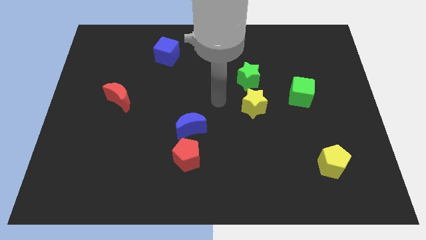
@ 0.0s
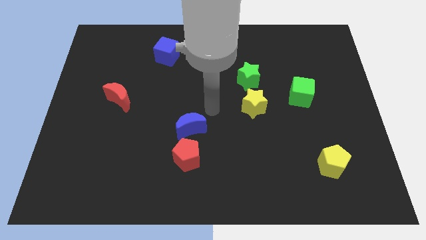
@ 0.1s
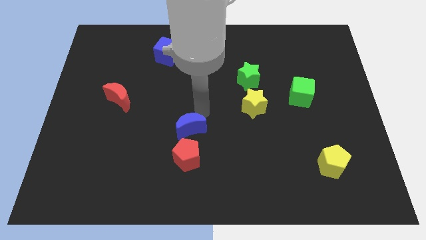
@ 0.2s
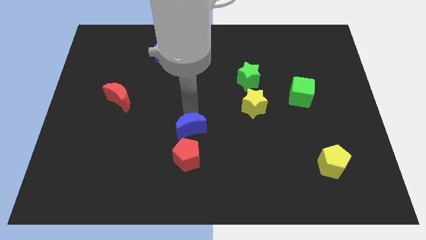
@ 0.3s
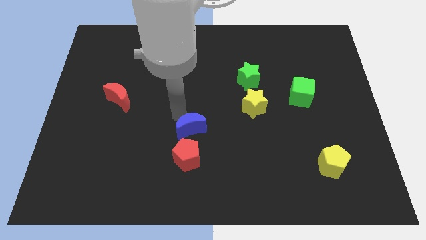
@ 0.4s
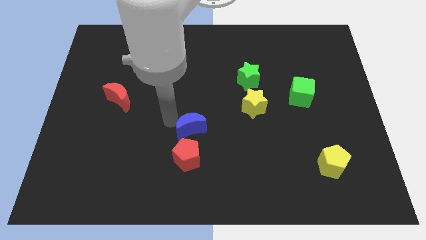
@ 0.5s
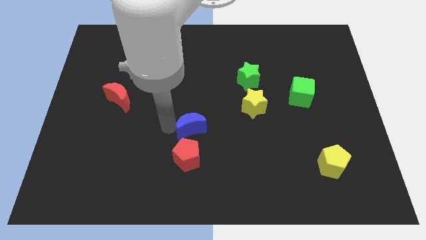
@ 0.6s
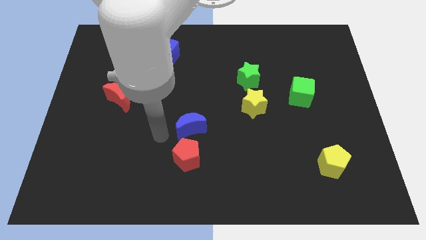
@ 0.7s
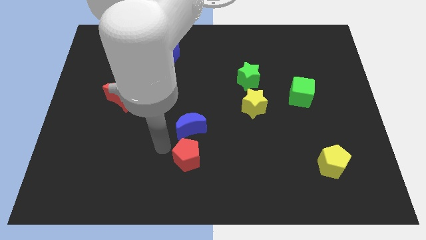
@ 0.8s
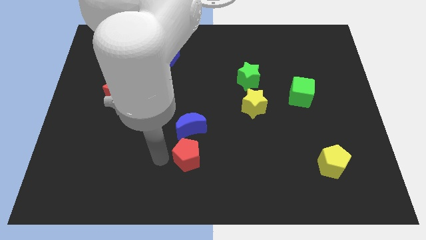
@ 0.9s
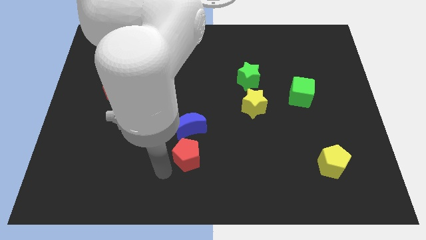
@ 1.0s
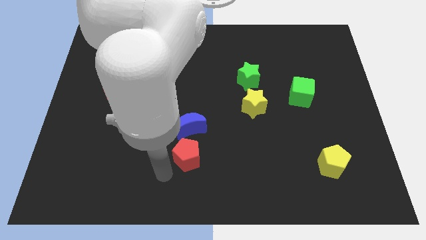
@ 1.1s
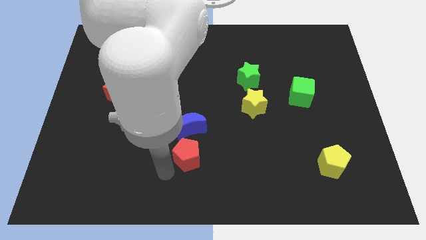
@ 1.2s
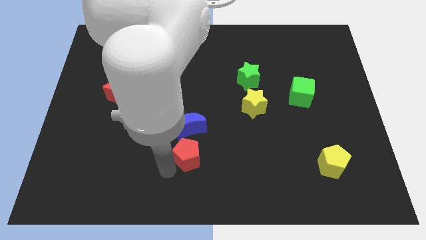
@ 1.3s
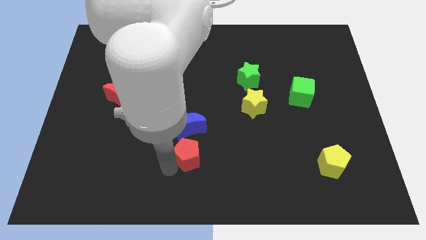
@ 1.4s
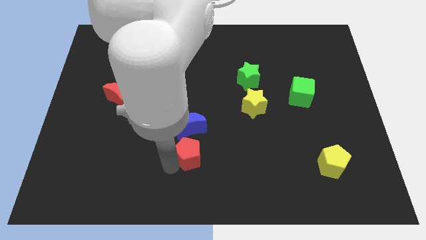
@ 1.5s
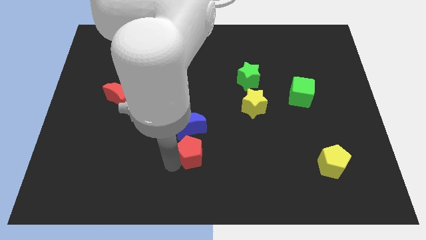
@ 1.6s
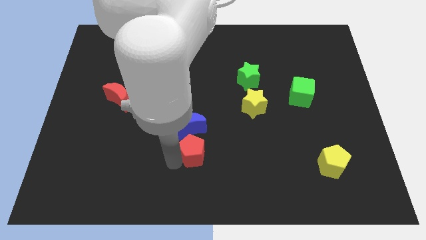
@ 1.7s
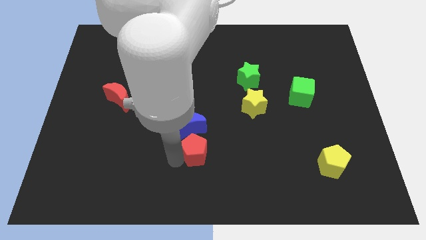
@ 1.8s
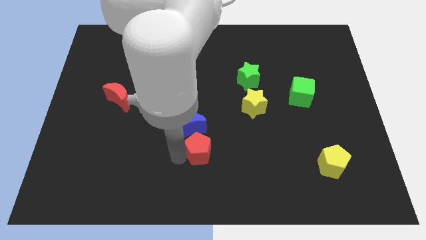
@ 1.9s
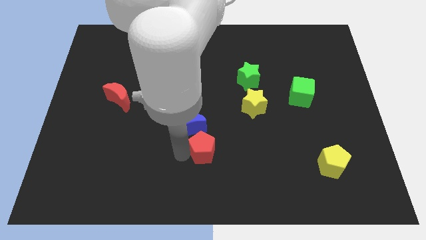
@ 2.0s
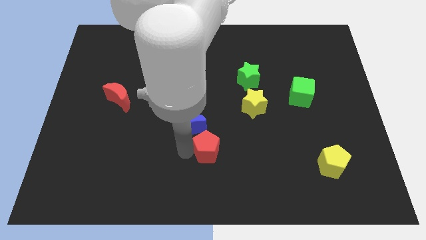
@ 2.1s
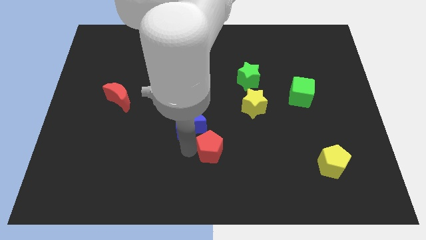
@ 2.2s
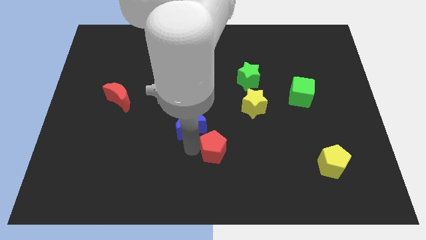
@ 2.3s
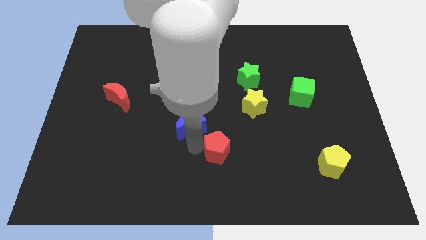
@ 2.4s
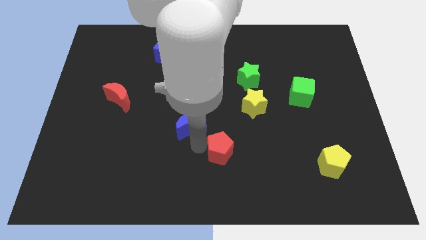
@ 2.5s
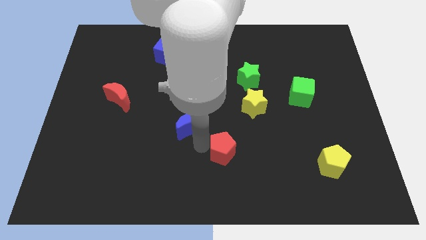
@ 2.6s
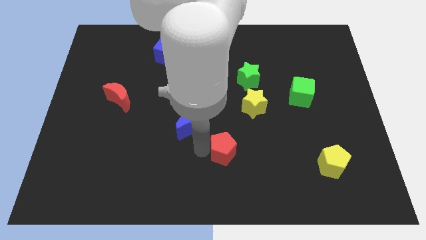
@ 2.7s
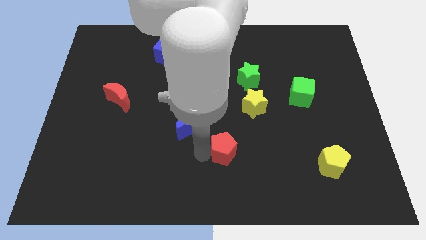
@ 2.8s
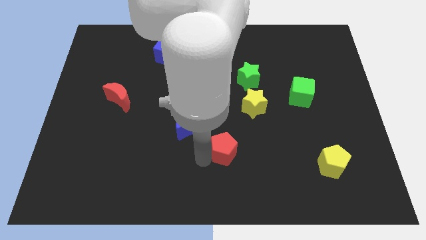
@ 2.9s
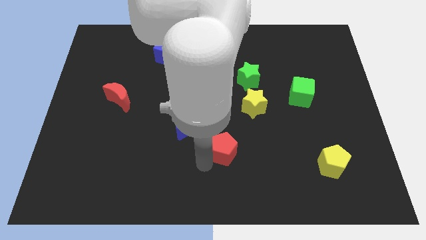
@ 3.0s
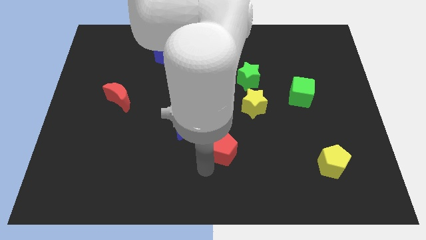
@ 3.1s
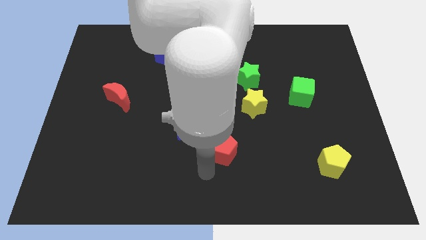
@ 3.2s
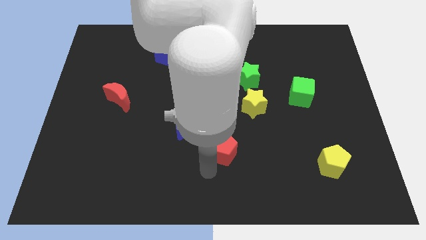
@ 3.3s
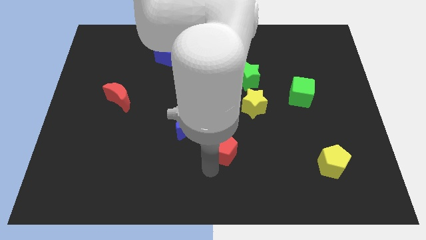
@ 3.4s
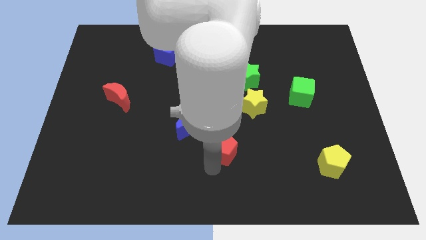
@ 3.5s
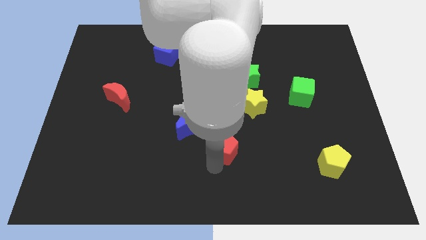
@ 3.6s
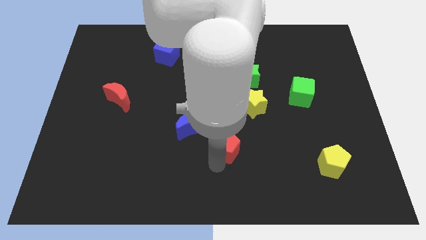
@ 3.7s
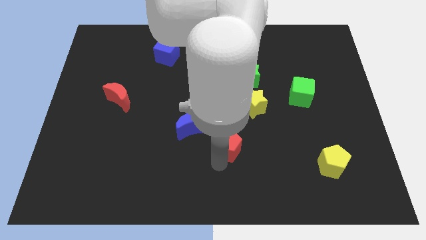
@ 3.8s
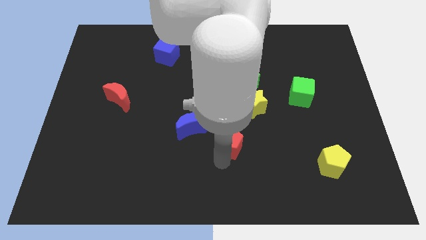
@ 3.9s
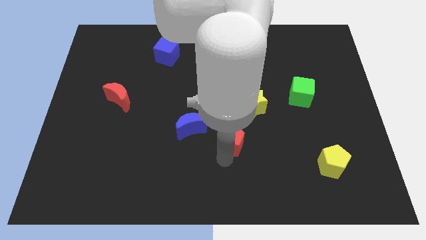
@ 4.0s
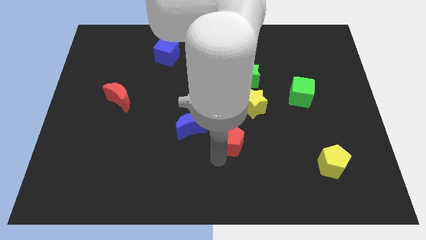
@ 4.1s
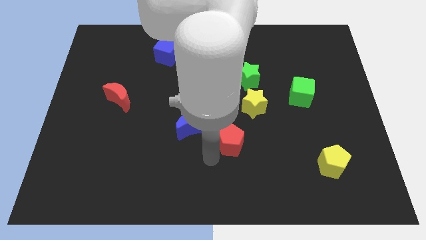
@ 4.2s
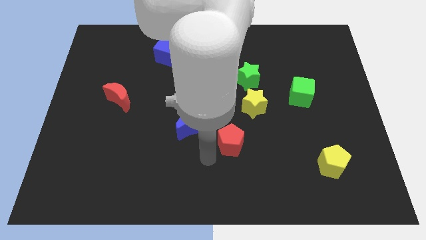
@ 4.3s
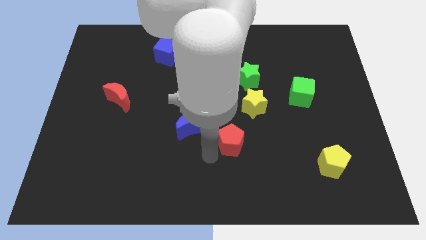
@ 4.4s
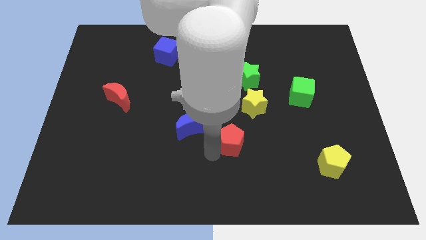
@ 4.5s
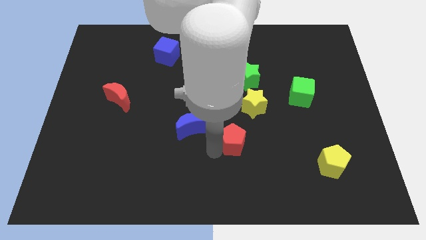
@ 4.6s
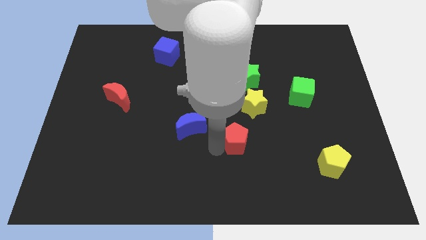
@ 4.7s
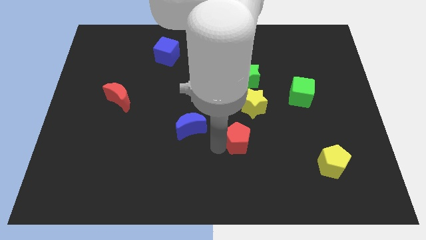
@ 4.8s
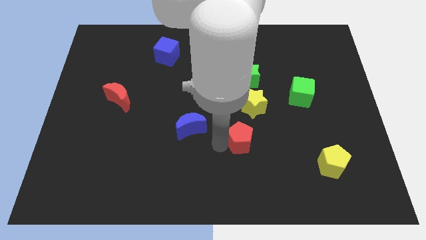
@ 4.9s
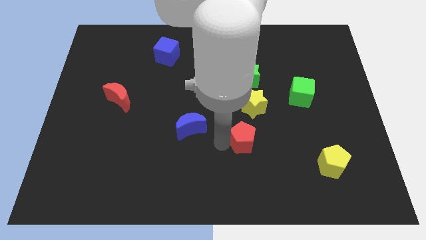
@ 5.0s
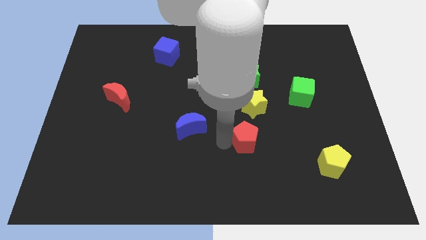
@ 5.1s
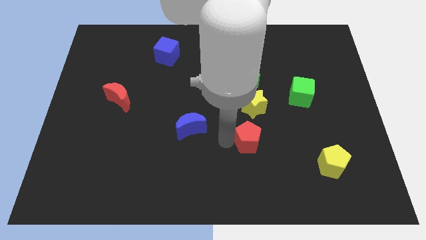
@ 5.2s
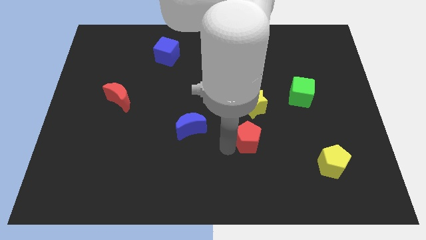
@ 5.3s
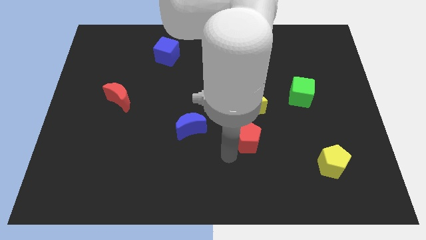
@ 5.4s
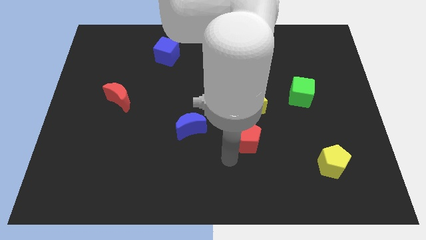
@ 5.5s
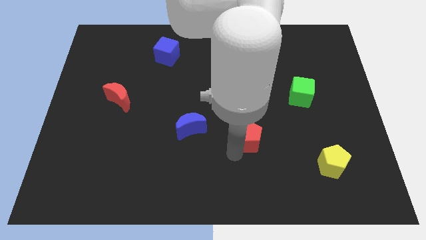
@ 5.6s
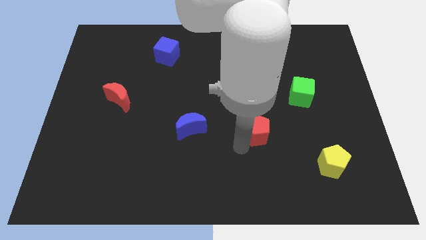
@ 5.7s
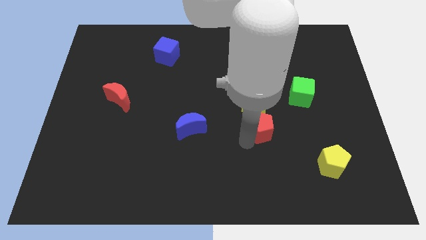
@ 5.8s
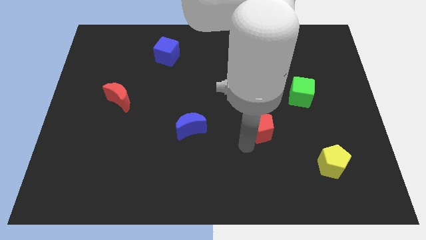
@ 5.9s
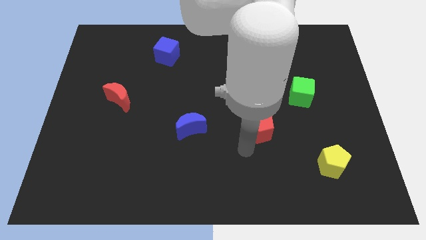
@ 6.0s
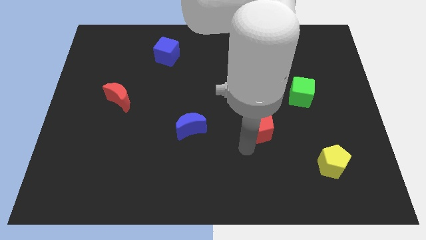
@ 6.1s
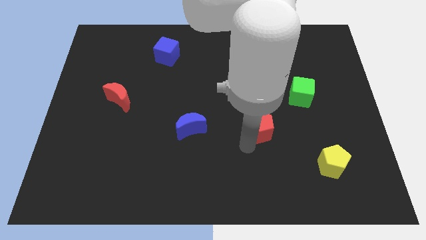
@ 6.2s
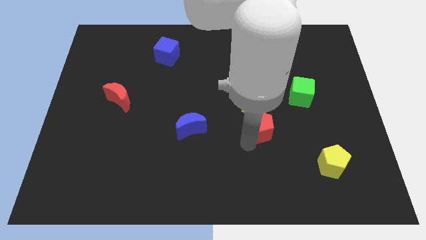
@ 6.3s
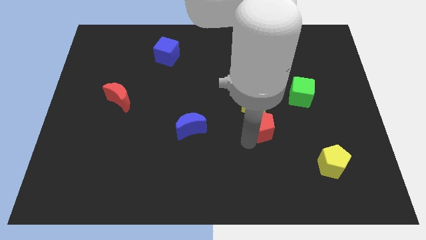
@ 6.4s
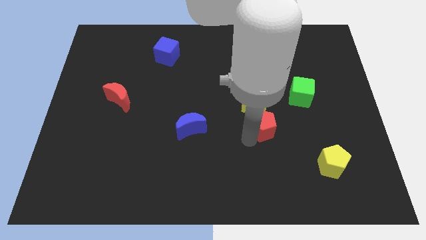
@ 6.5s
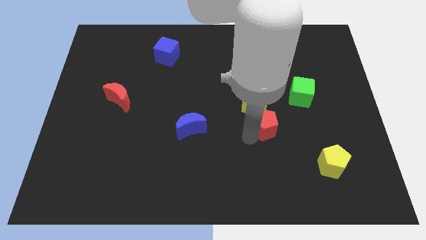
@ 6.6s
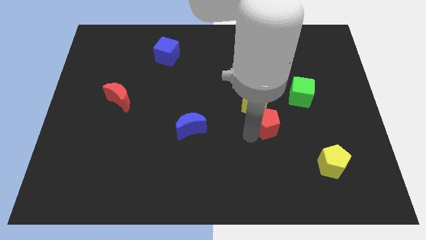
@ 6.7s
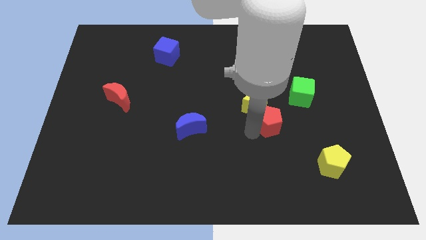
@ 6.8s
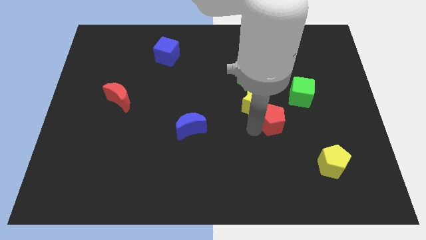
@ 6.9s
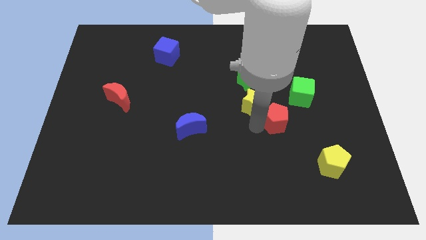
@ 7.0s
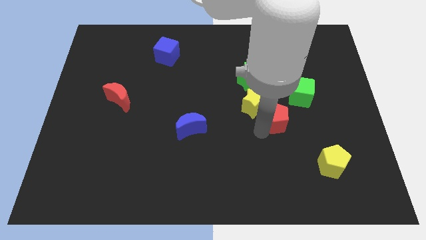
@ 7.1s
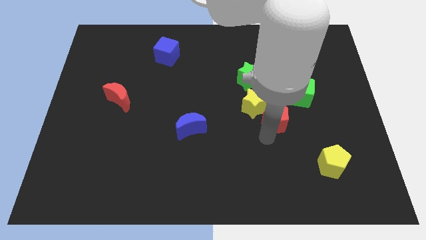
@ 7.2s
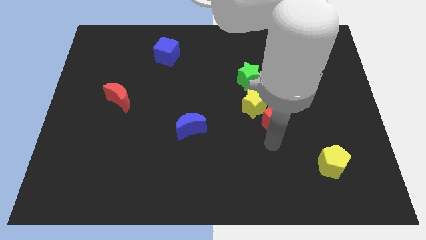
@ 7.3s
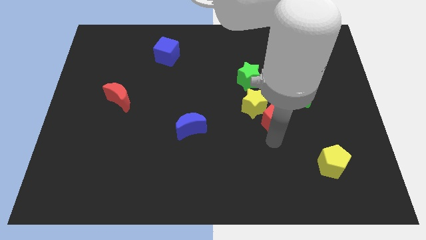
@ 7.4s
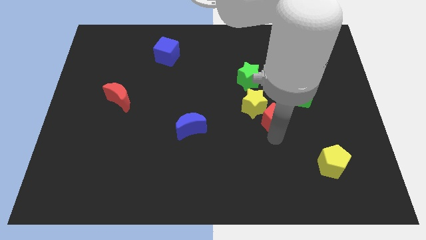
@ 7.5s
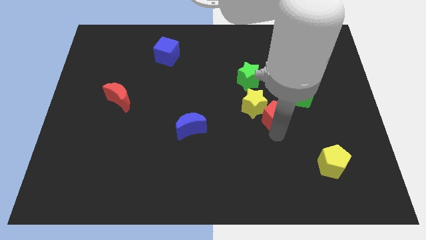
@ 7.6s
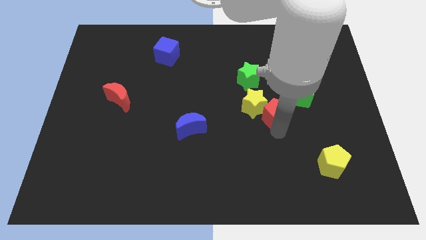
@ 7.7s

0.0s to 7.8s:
slide the red pentagon up and right diagonally
